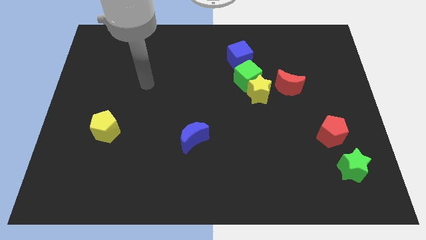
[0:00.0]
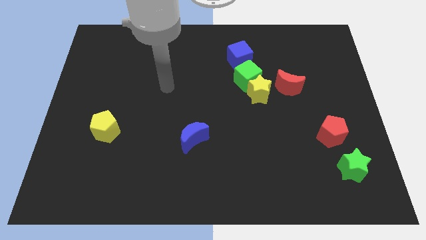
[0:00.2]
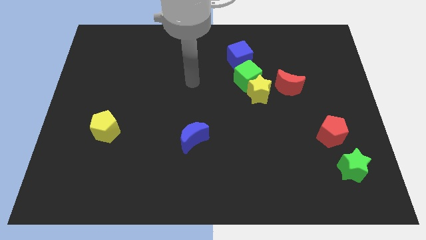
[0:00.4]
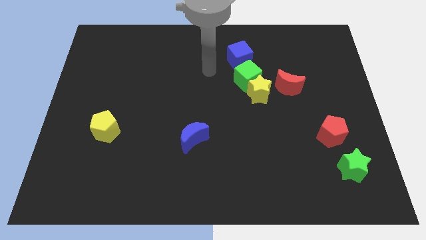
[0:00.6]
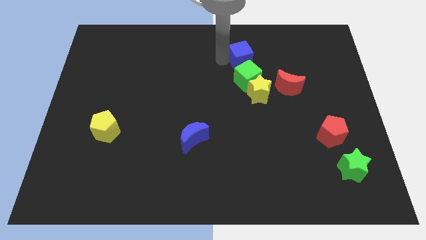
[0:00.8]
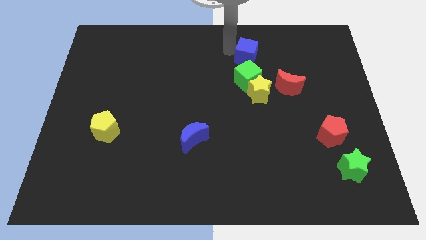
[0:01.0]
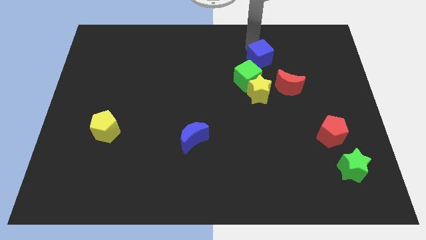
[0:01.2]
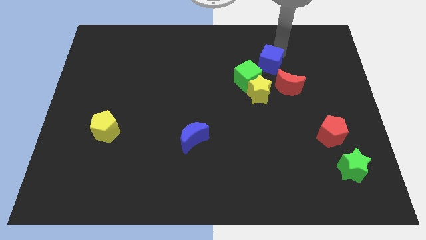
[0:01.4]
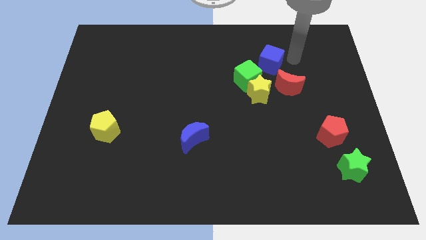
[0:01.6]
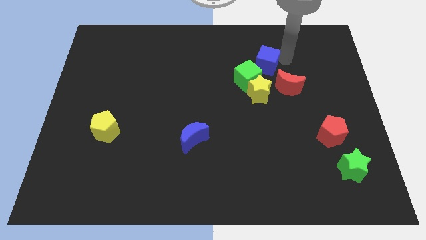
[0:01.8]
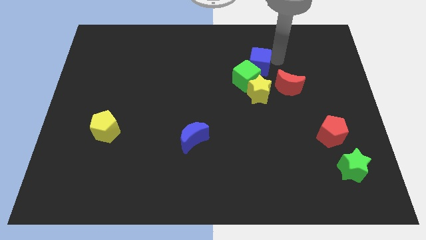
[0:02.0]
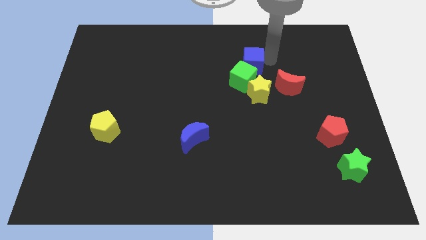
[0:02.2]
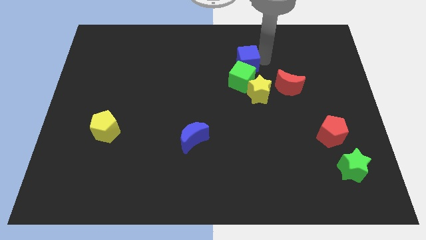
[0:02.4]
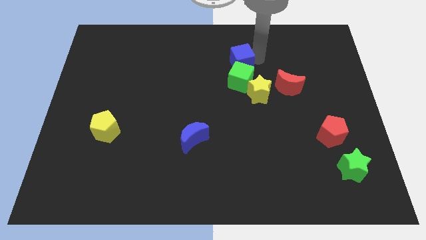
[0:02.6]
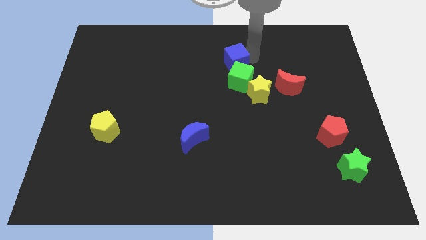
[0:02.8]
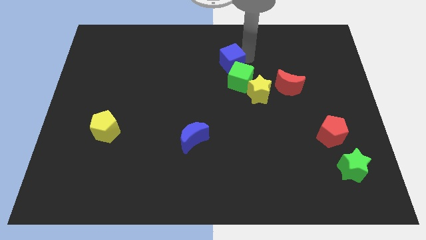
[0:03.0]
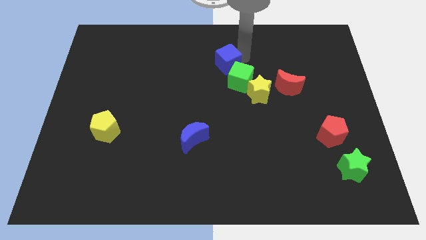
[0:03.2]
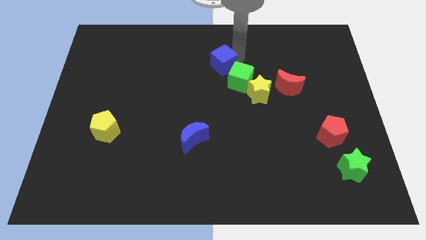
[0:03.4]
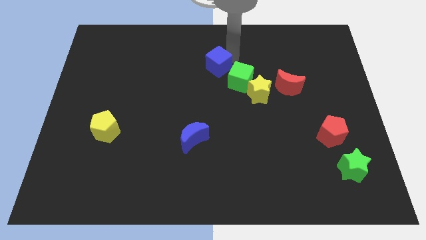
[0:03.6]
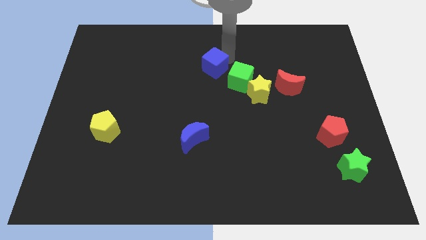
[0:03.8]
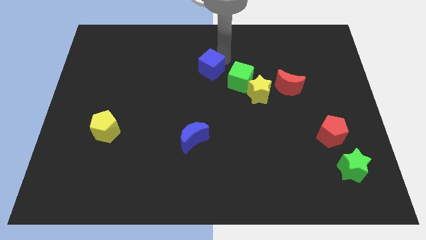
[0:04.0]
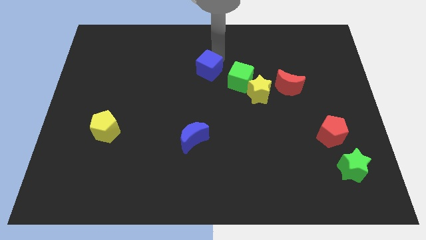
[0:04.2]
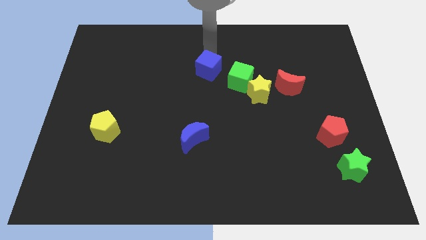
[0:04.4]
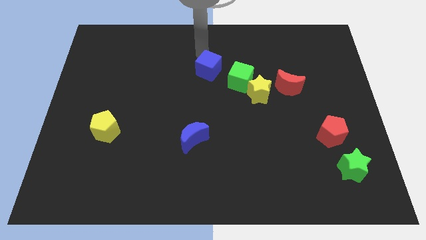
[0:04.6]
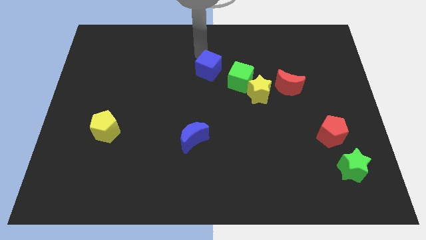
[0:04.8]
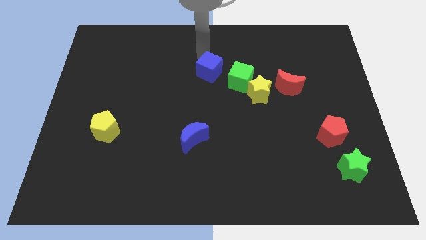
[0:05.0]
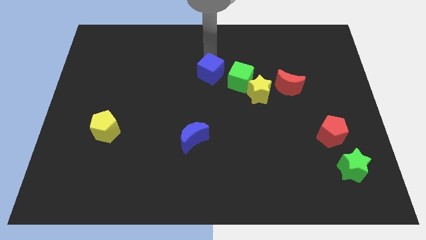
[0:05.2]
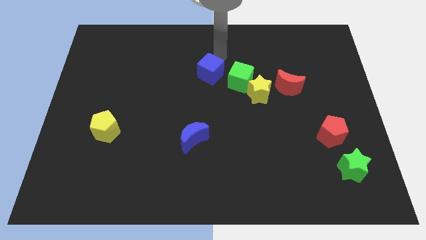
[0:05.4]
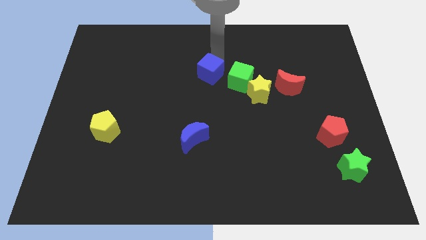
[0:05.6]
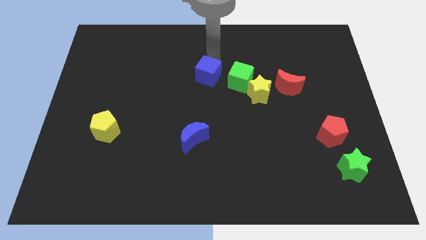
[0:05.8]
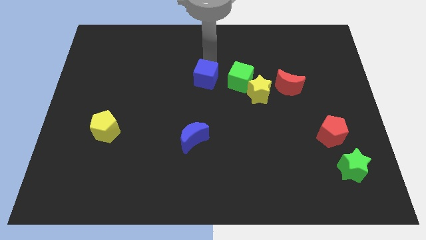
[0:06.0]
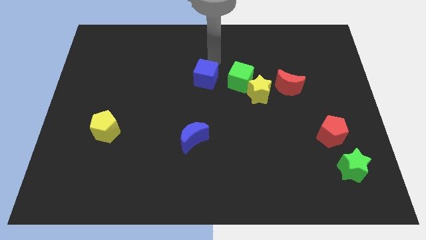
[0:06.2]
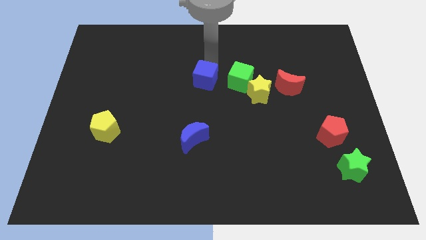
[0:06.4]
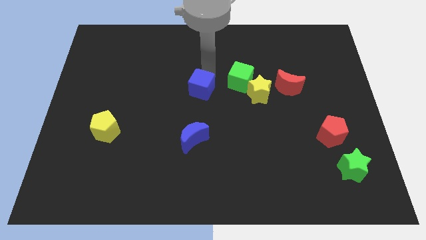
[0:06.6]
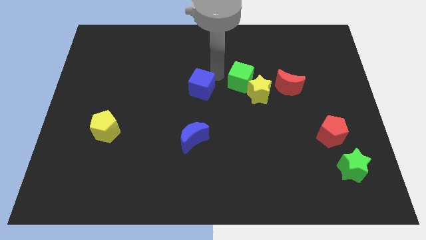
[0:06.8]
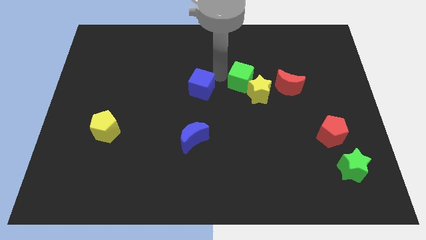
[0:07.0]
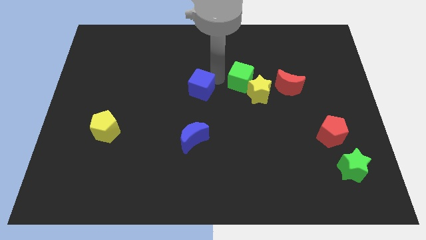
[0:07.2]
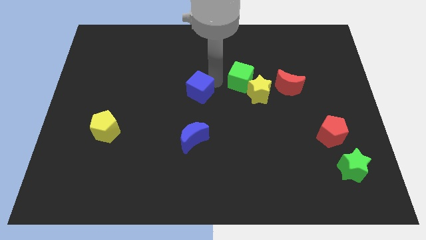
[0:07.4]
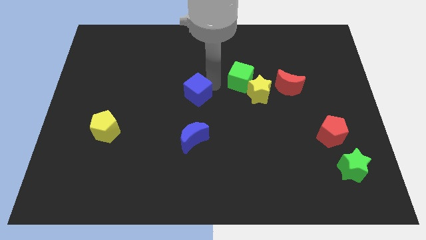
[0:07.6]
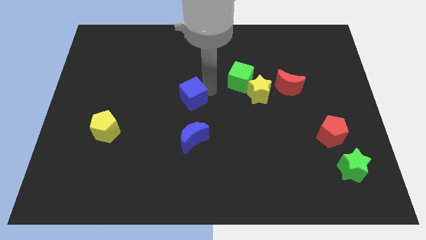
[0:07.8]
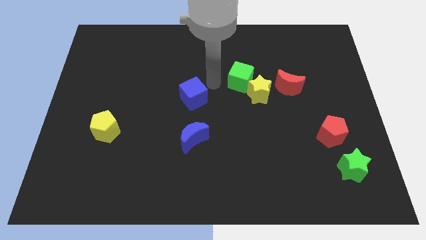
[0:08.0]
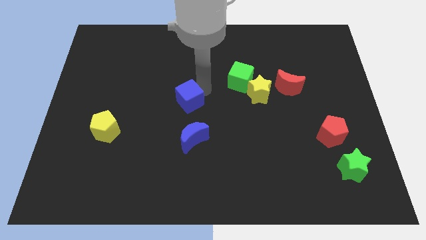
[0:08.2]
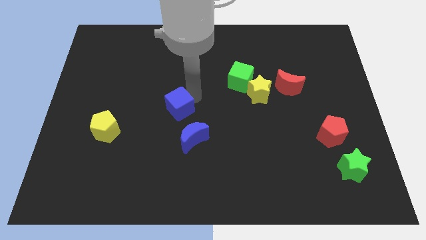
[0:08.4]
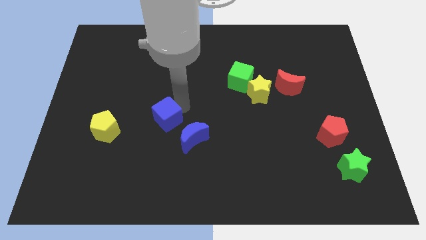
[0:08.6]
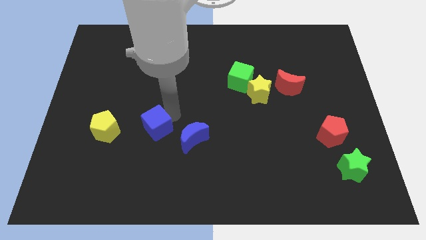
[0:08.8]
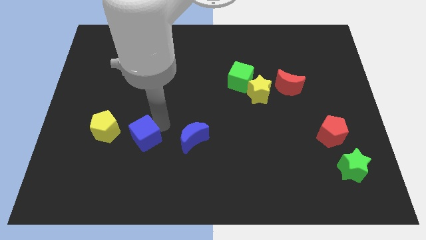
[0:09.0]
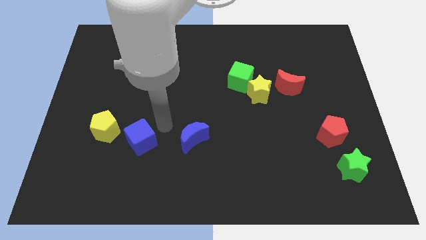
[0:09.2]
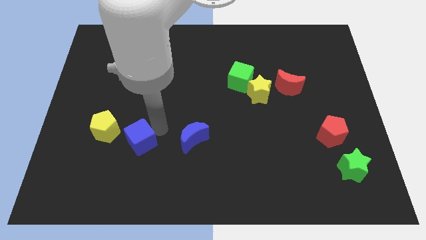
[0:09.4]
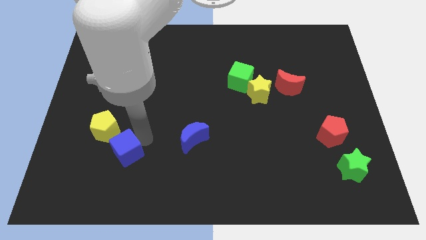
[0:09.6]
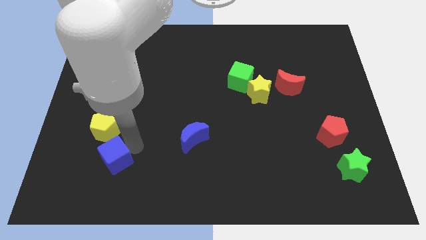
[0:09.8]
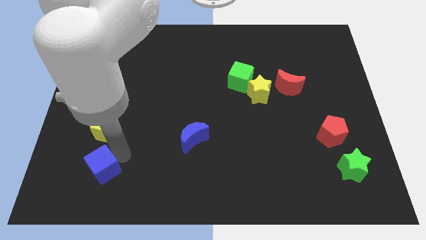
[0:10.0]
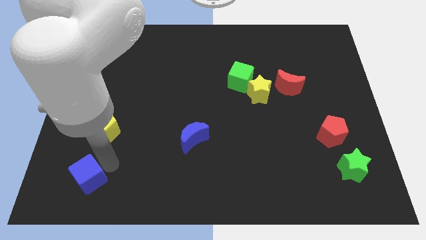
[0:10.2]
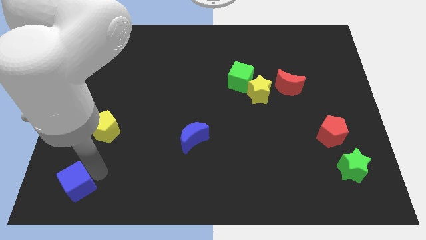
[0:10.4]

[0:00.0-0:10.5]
move the blue cube to the bottom left of the board

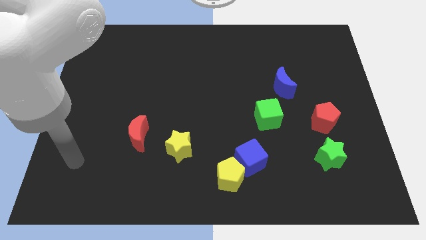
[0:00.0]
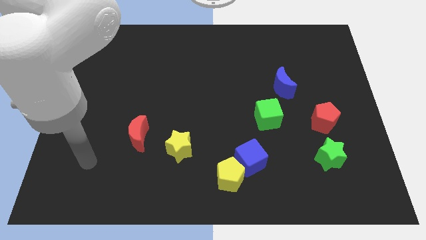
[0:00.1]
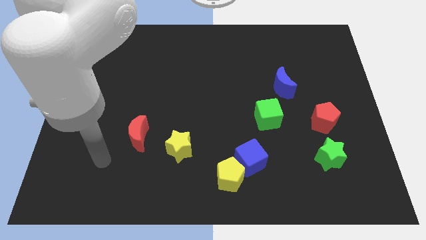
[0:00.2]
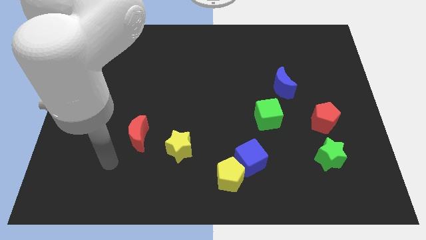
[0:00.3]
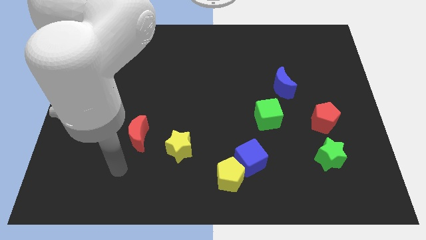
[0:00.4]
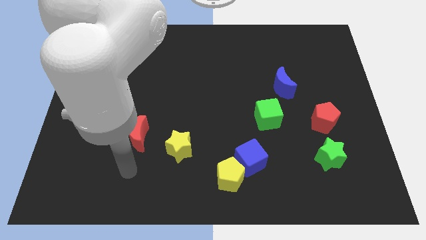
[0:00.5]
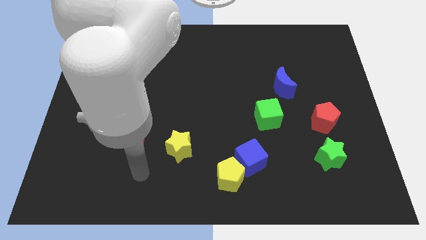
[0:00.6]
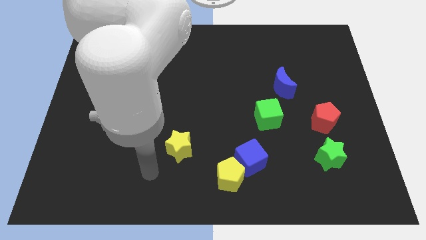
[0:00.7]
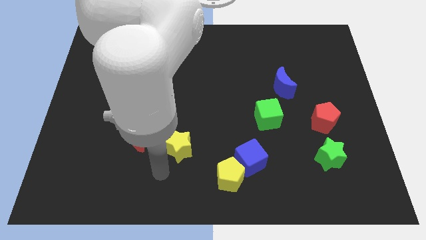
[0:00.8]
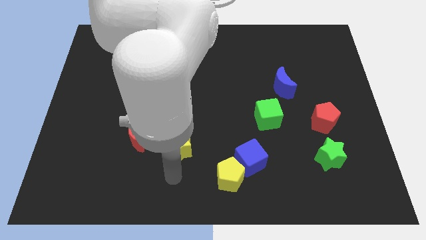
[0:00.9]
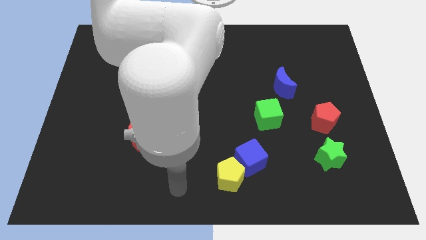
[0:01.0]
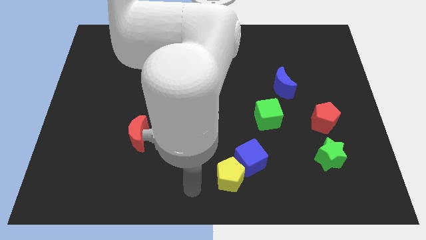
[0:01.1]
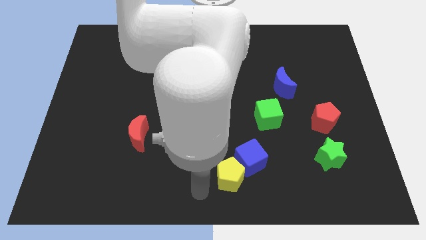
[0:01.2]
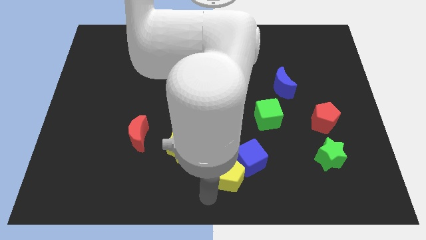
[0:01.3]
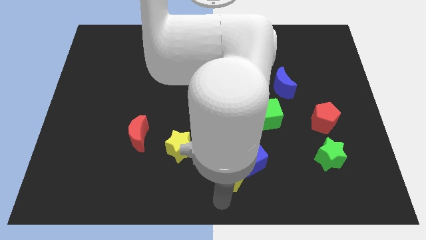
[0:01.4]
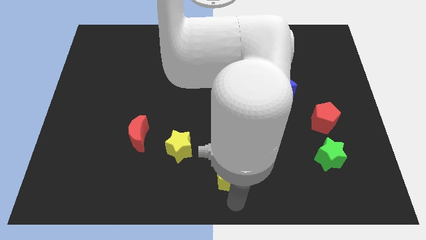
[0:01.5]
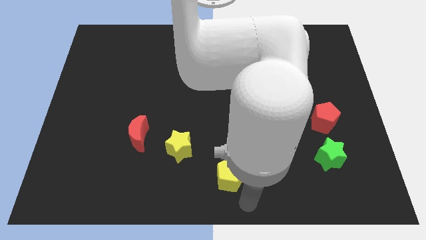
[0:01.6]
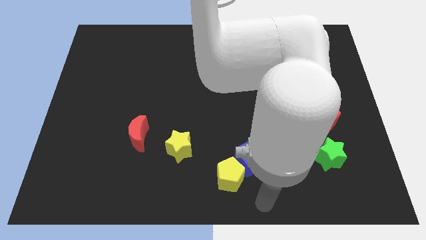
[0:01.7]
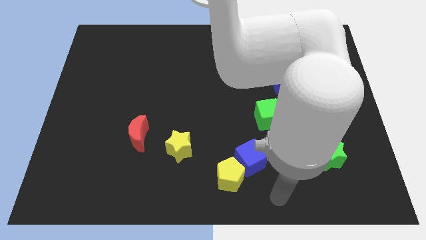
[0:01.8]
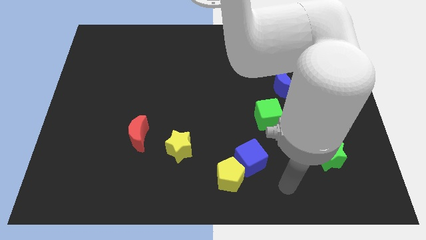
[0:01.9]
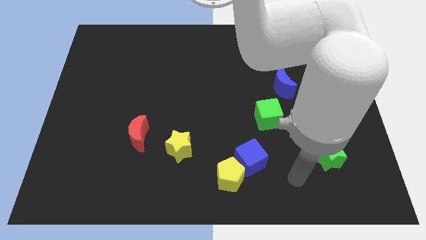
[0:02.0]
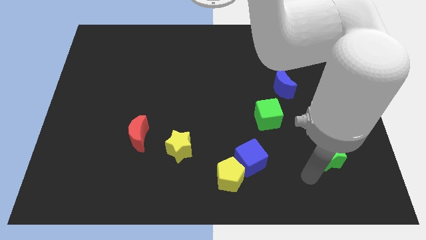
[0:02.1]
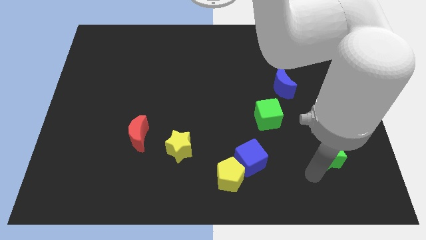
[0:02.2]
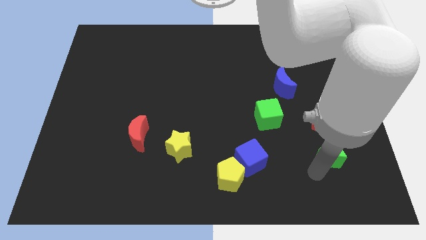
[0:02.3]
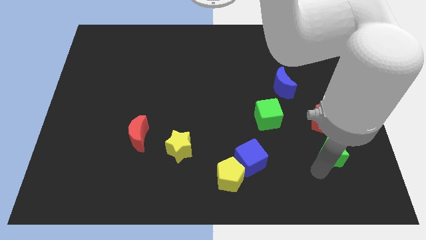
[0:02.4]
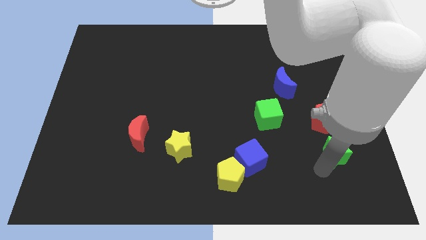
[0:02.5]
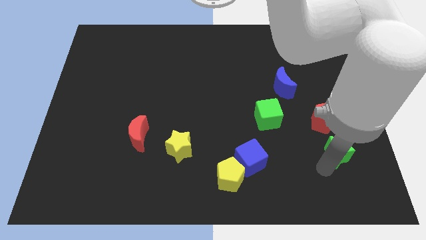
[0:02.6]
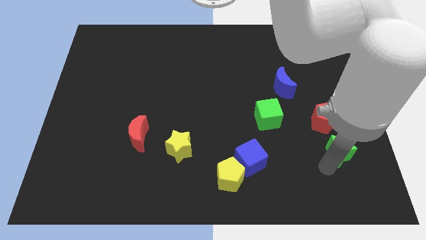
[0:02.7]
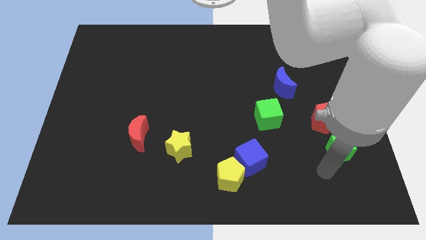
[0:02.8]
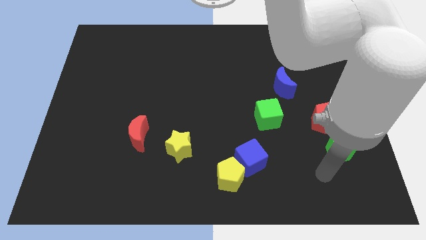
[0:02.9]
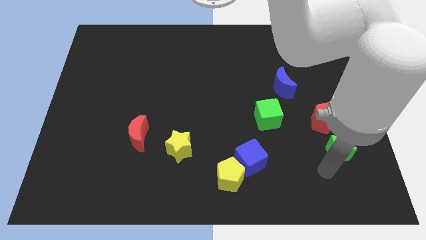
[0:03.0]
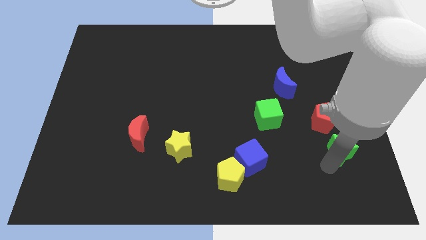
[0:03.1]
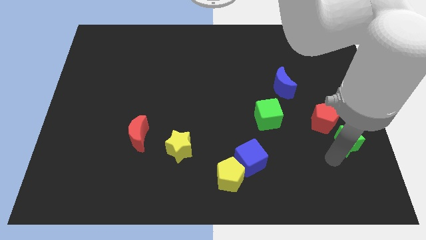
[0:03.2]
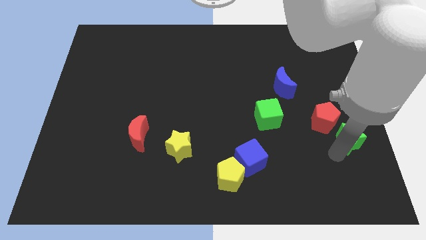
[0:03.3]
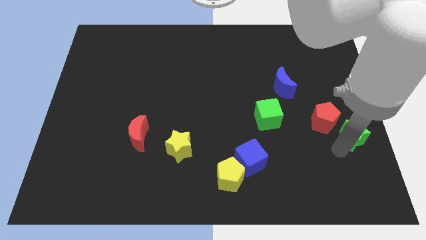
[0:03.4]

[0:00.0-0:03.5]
push the green star to the center right
